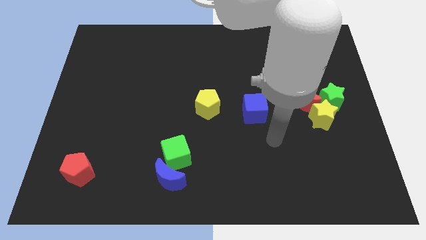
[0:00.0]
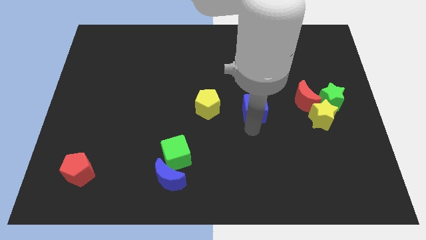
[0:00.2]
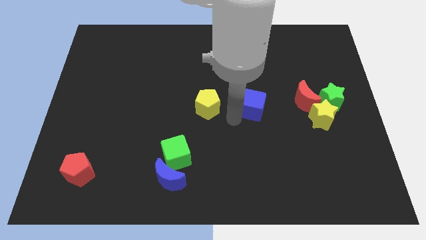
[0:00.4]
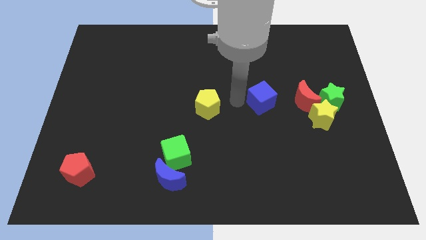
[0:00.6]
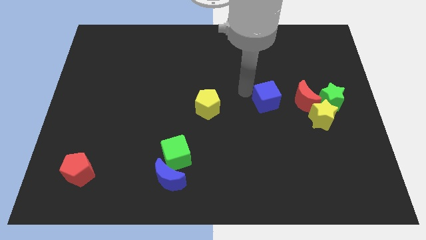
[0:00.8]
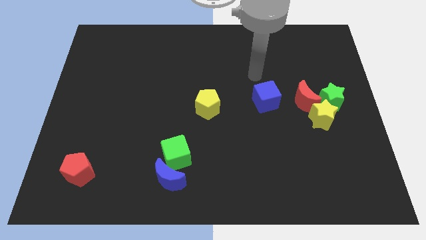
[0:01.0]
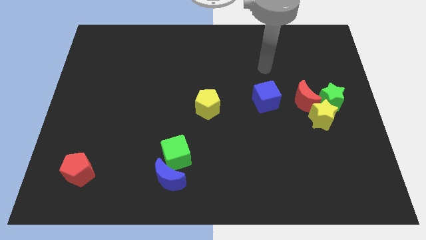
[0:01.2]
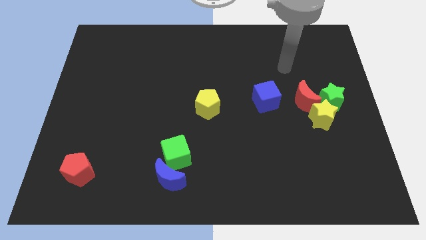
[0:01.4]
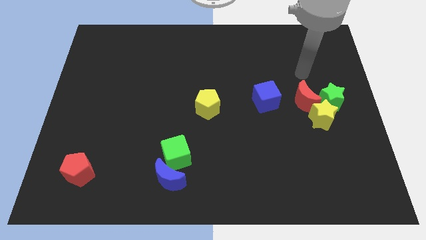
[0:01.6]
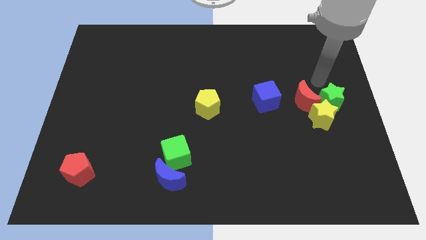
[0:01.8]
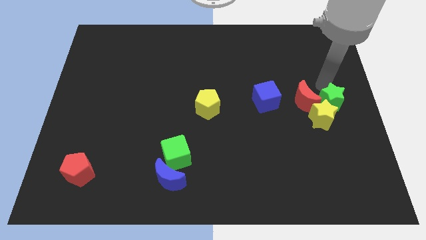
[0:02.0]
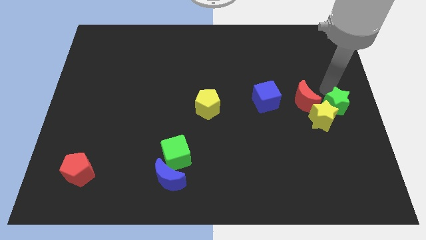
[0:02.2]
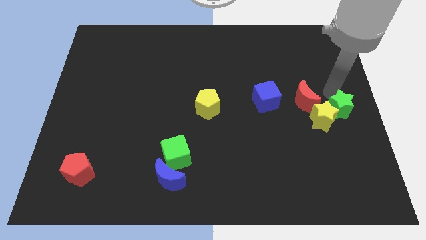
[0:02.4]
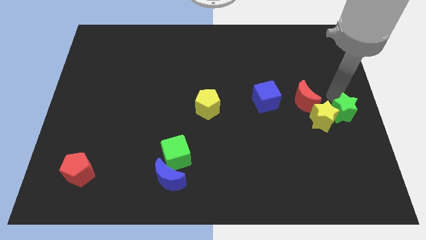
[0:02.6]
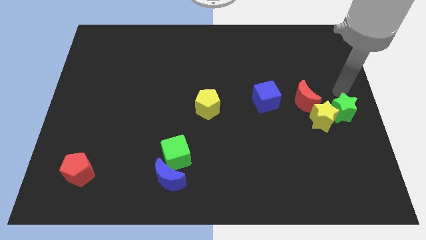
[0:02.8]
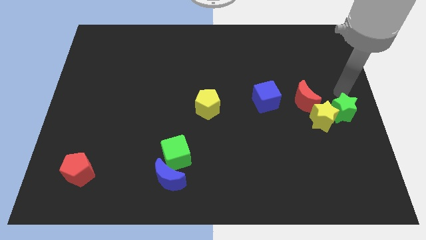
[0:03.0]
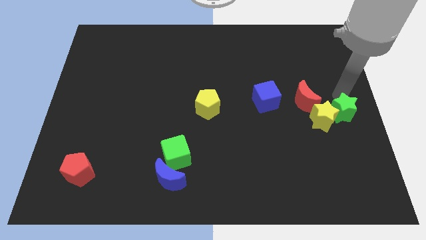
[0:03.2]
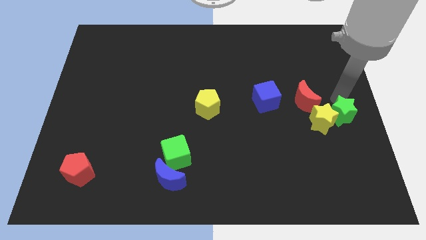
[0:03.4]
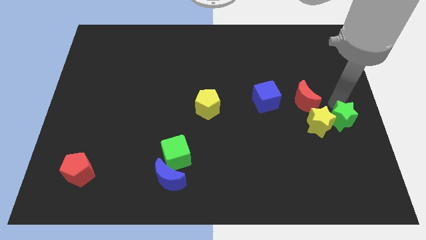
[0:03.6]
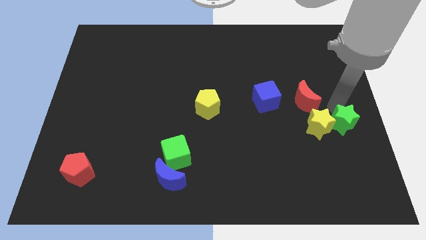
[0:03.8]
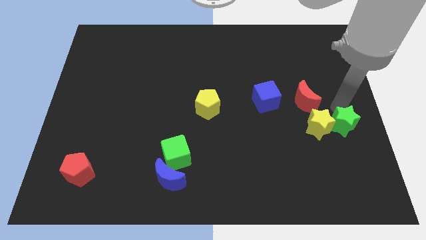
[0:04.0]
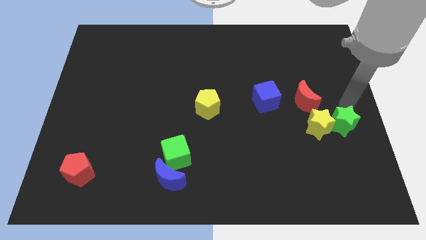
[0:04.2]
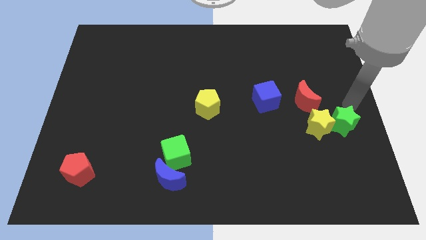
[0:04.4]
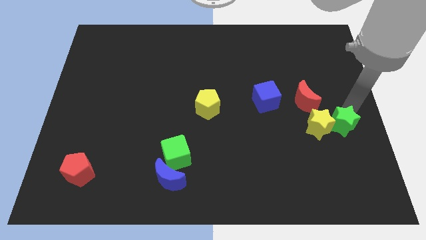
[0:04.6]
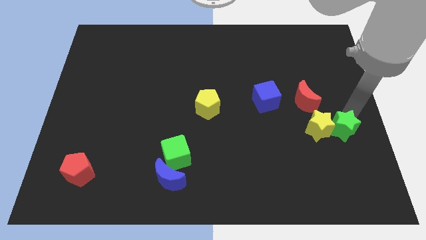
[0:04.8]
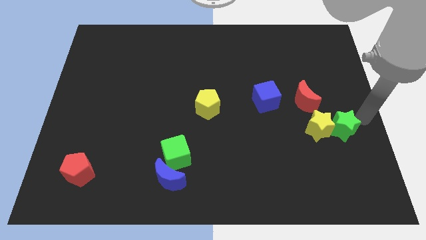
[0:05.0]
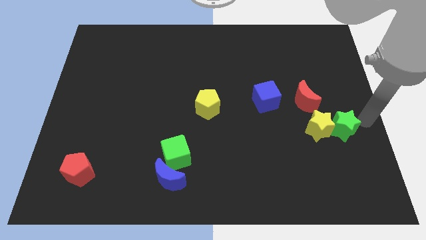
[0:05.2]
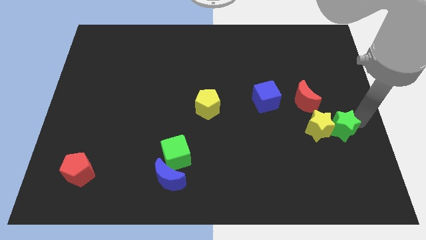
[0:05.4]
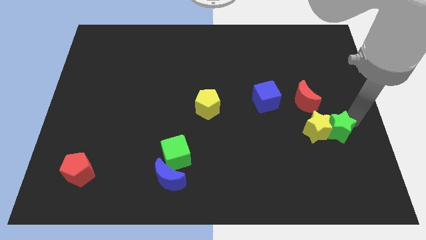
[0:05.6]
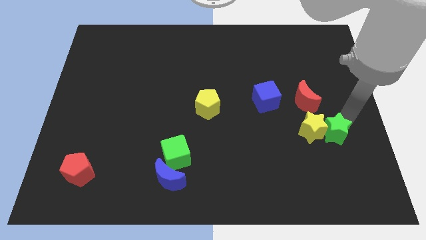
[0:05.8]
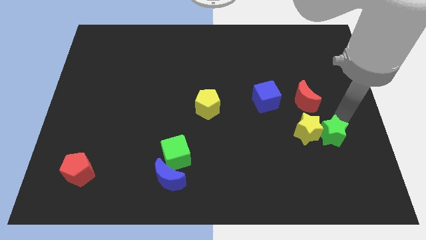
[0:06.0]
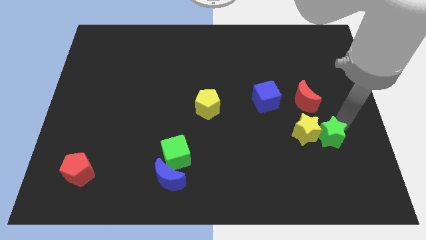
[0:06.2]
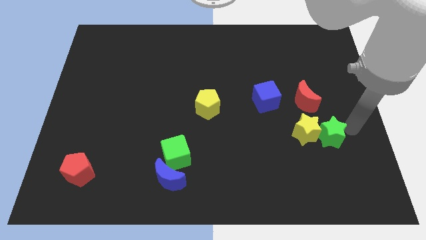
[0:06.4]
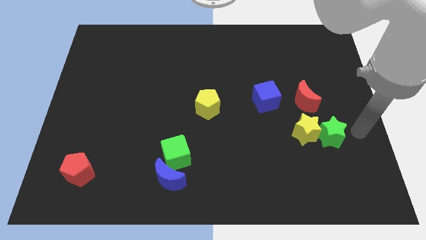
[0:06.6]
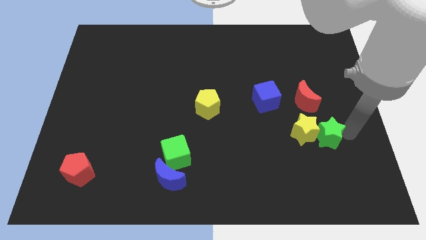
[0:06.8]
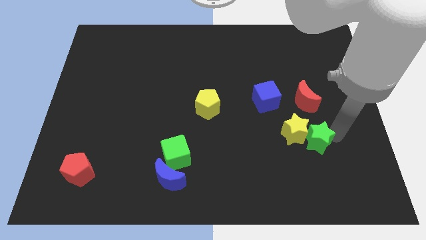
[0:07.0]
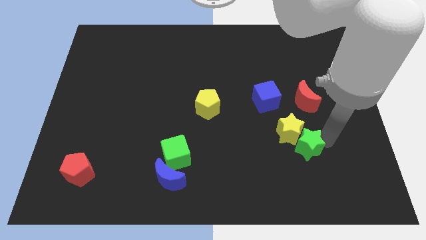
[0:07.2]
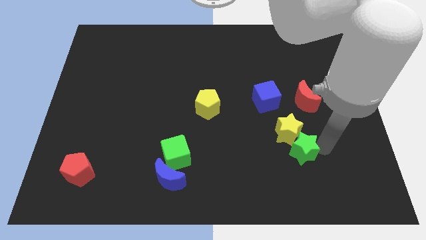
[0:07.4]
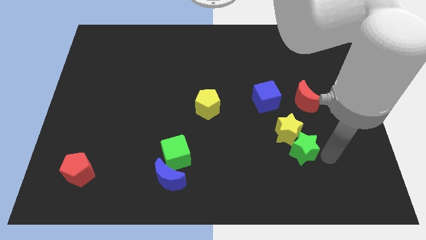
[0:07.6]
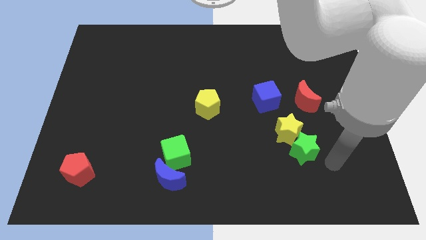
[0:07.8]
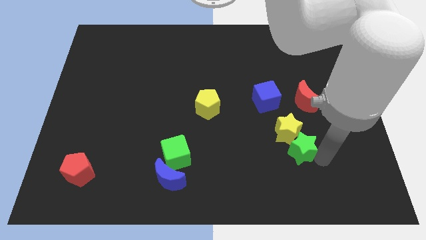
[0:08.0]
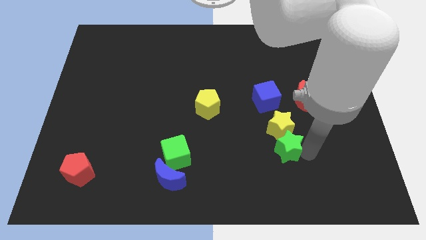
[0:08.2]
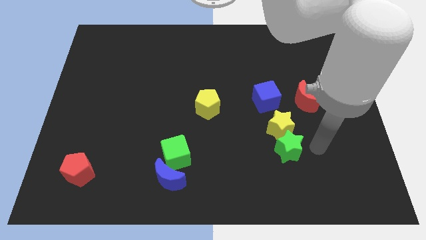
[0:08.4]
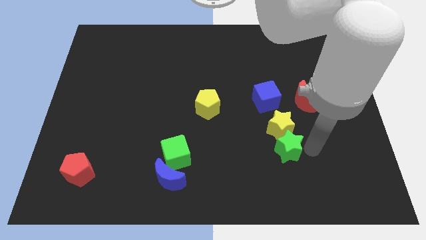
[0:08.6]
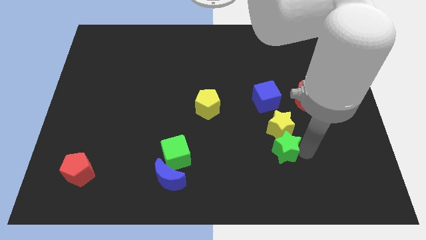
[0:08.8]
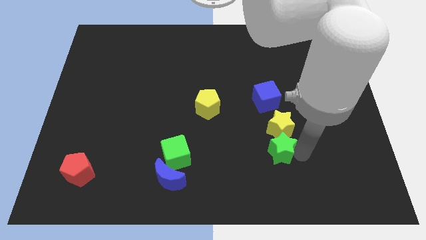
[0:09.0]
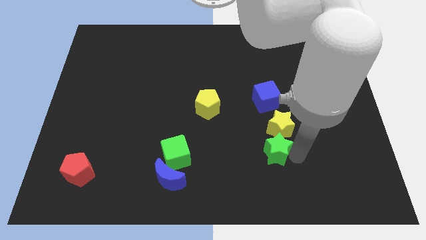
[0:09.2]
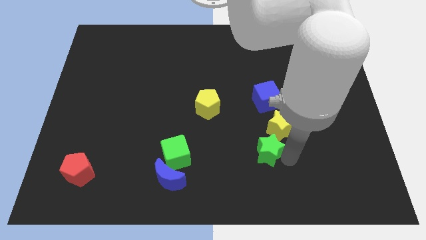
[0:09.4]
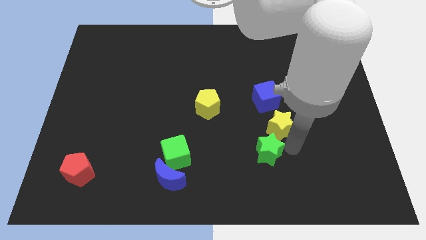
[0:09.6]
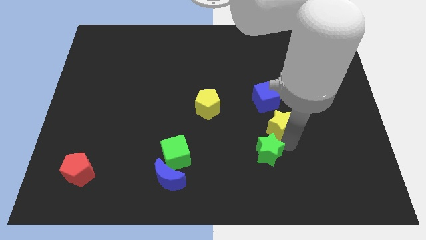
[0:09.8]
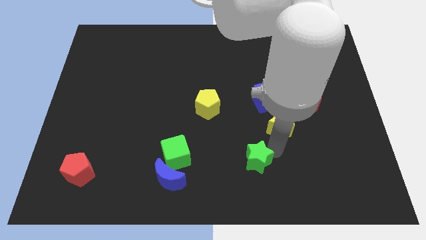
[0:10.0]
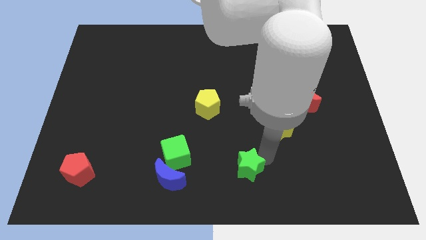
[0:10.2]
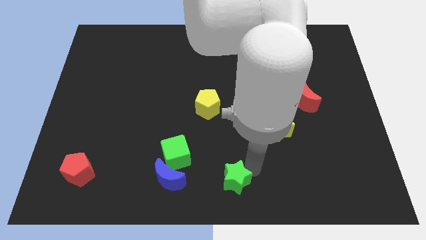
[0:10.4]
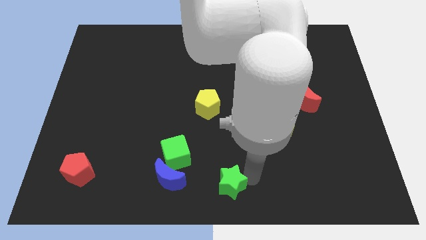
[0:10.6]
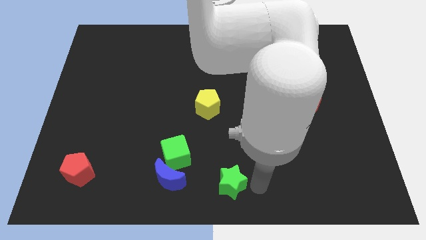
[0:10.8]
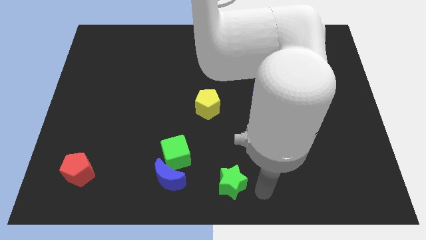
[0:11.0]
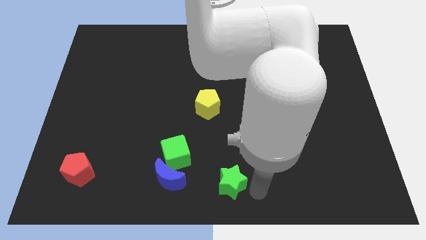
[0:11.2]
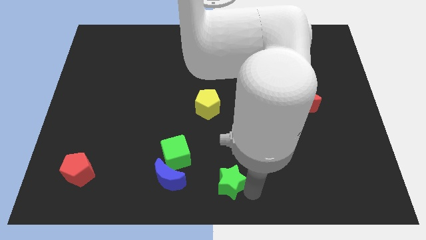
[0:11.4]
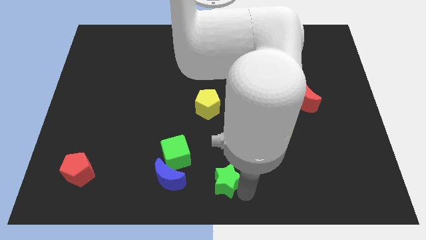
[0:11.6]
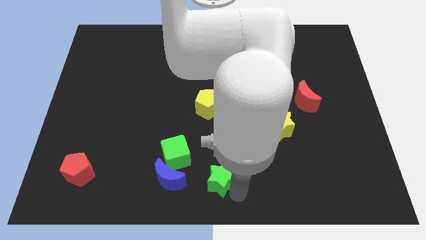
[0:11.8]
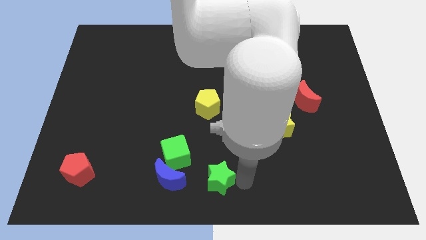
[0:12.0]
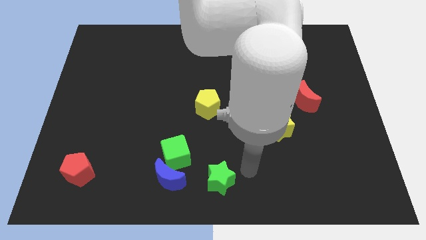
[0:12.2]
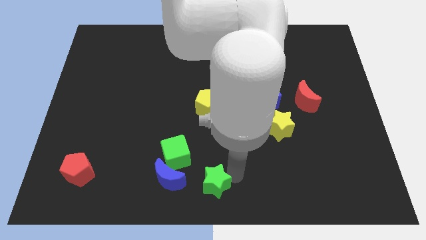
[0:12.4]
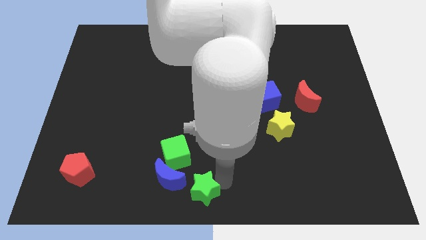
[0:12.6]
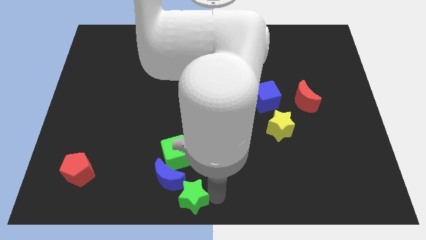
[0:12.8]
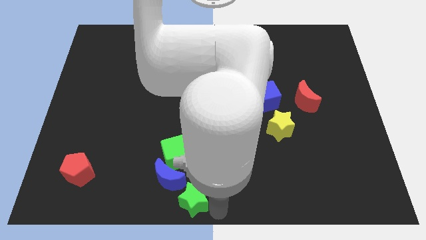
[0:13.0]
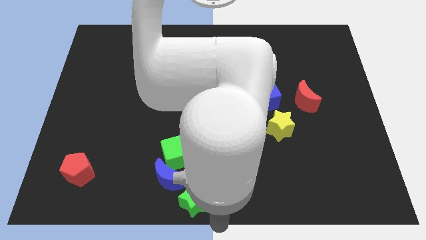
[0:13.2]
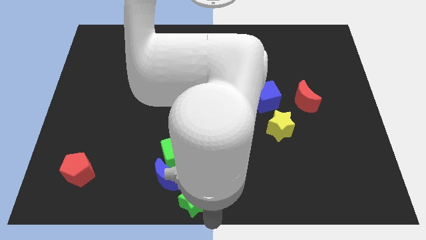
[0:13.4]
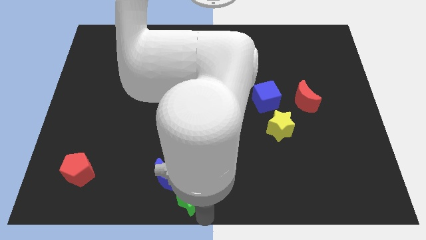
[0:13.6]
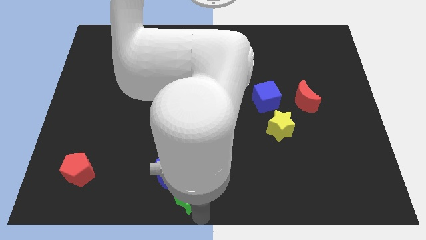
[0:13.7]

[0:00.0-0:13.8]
slide the green star to the blue moon
